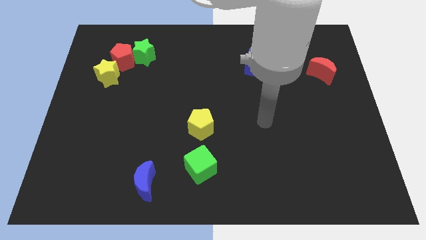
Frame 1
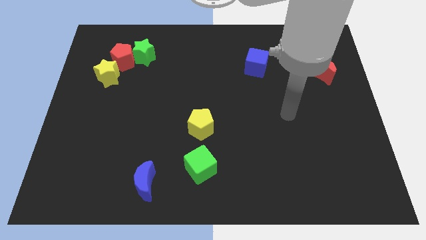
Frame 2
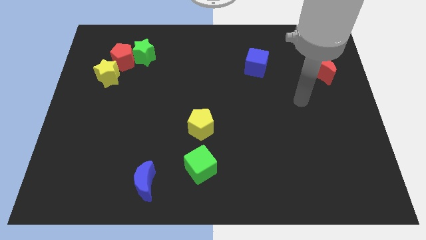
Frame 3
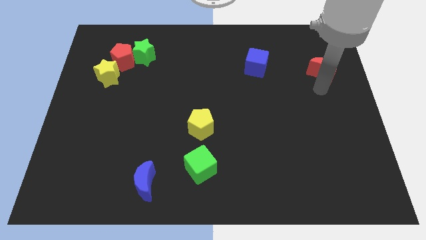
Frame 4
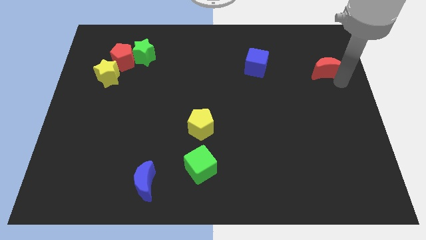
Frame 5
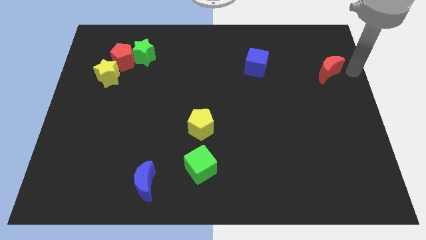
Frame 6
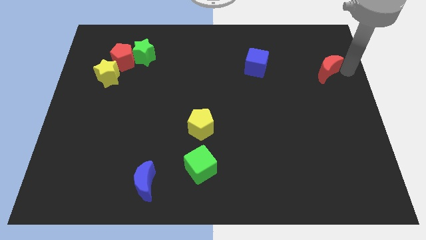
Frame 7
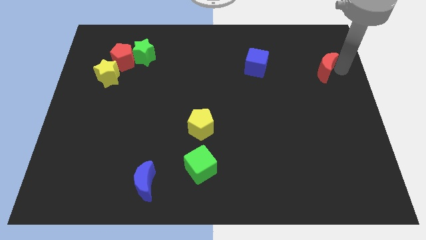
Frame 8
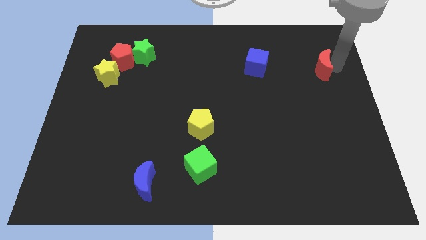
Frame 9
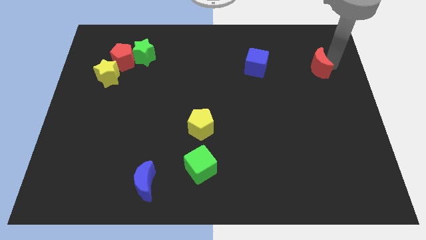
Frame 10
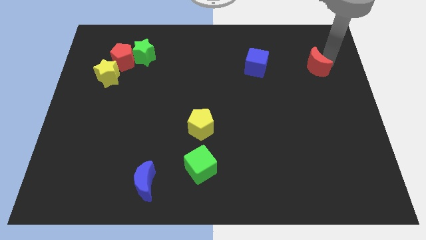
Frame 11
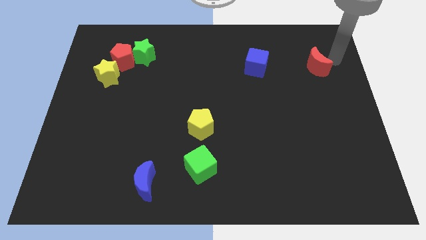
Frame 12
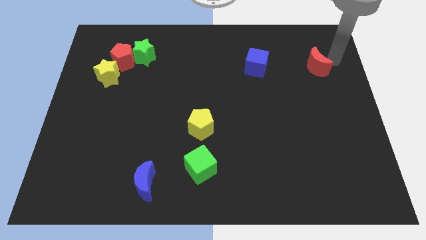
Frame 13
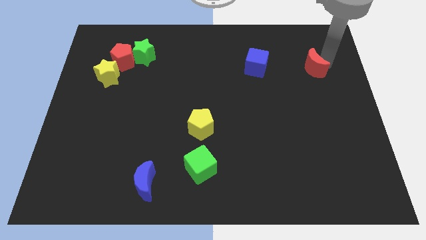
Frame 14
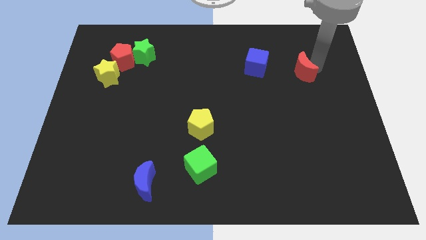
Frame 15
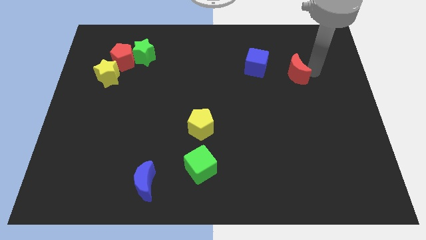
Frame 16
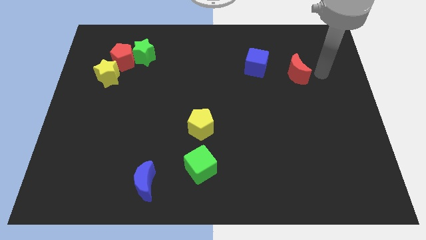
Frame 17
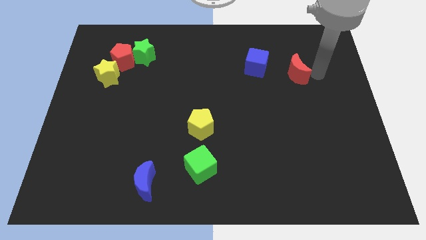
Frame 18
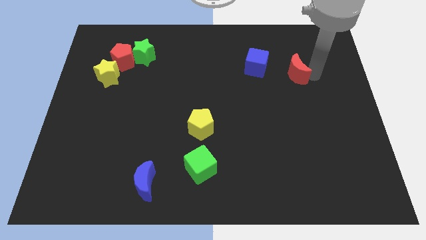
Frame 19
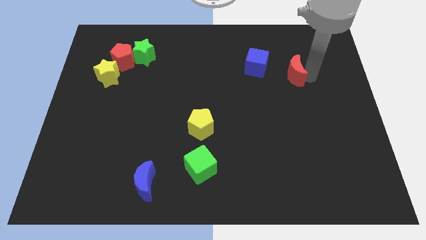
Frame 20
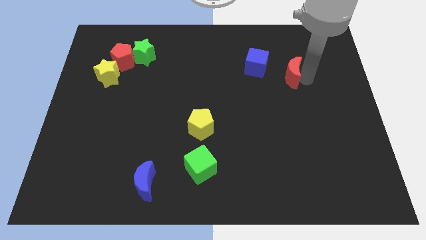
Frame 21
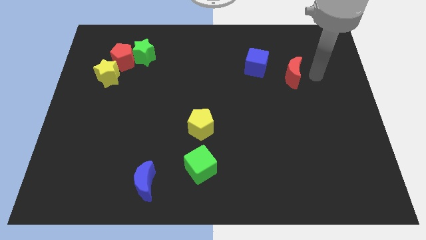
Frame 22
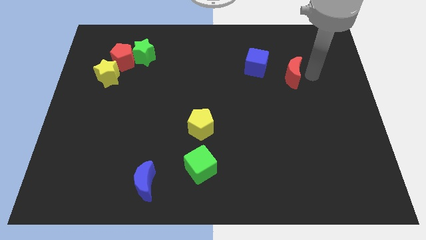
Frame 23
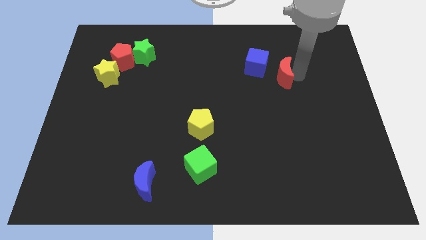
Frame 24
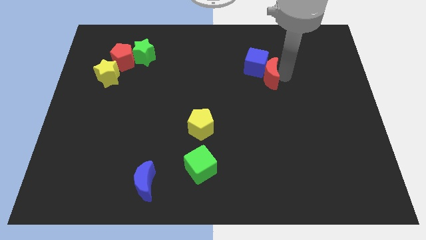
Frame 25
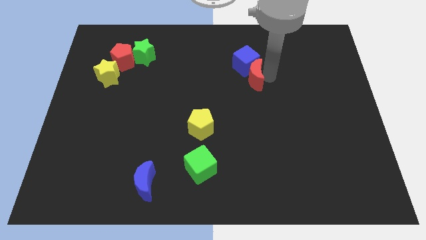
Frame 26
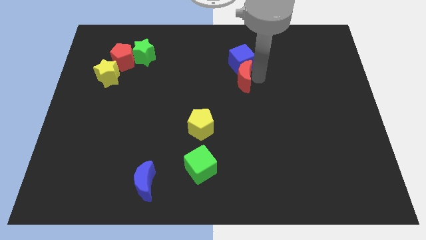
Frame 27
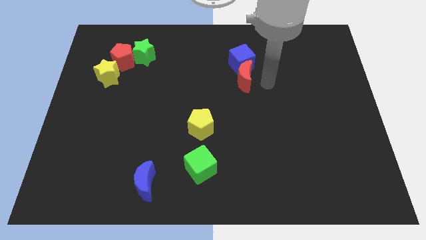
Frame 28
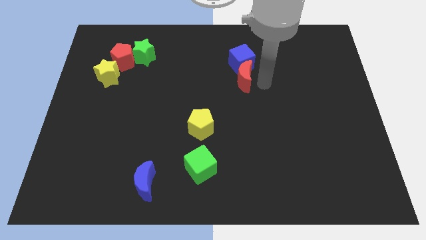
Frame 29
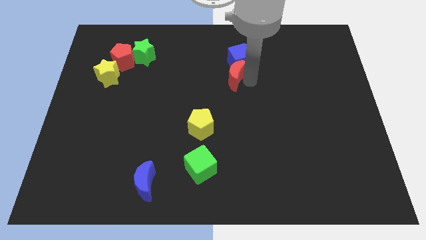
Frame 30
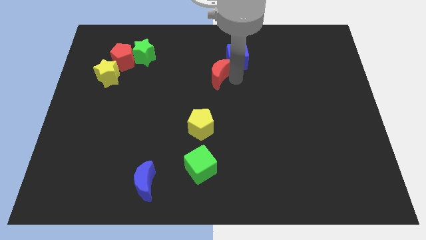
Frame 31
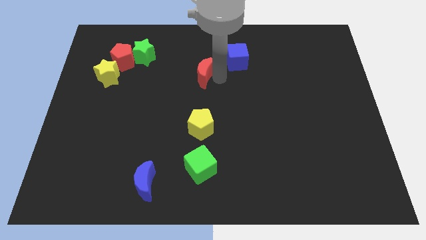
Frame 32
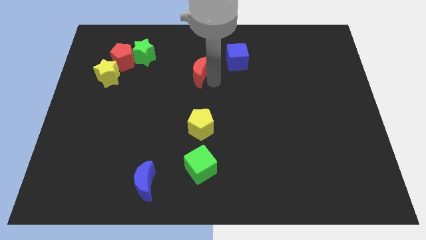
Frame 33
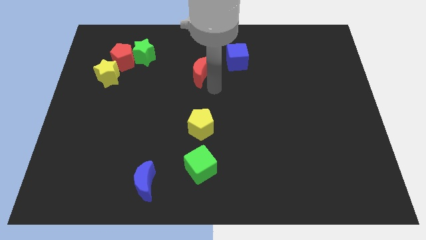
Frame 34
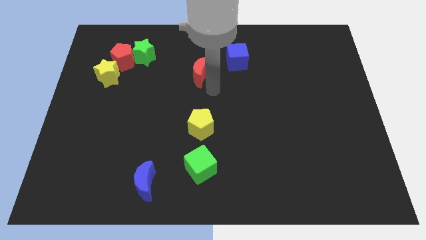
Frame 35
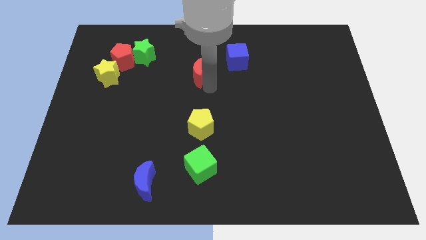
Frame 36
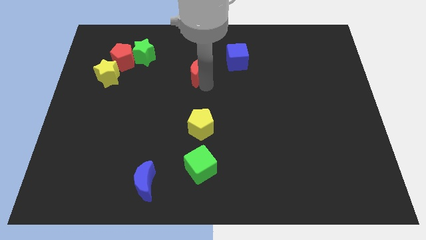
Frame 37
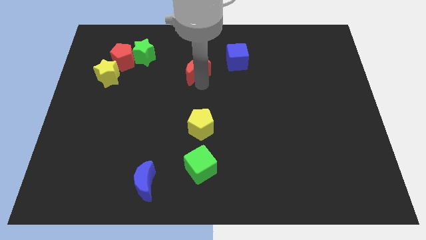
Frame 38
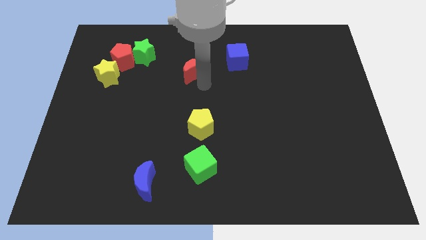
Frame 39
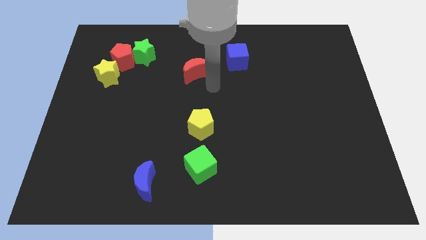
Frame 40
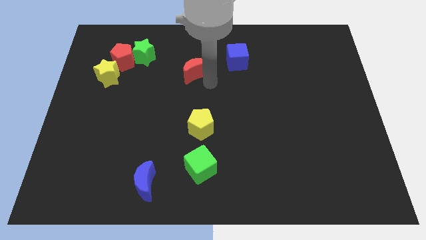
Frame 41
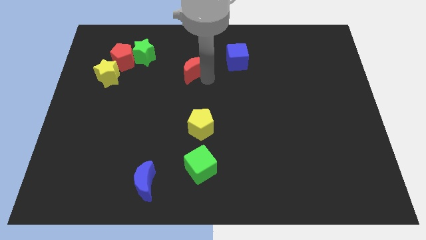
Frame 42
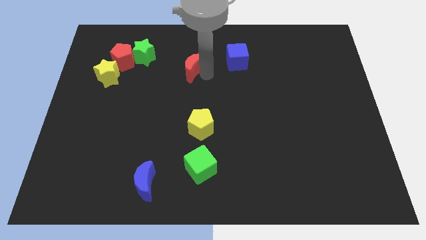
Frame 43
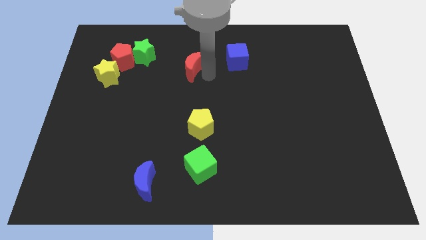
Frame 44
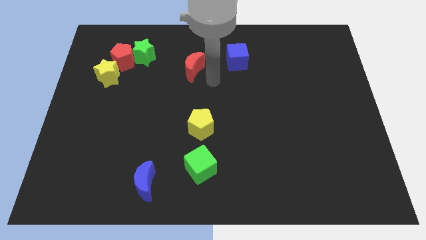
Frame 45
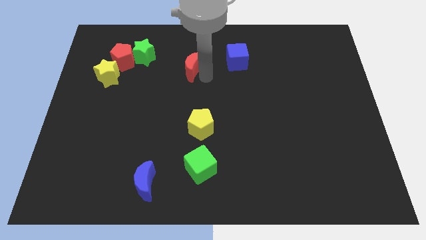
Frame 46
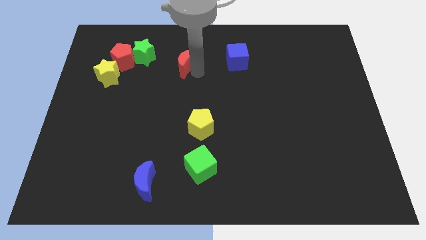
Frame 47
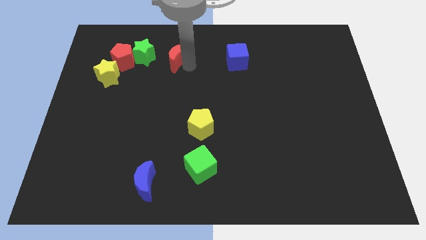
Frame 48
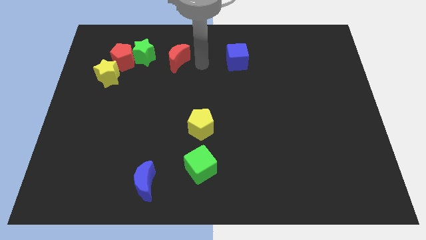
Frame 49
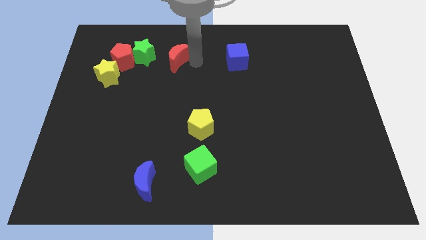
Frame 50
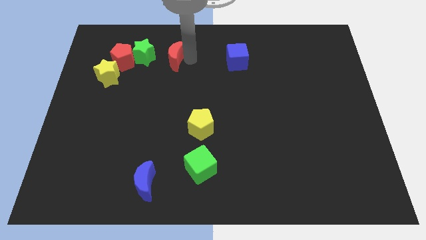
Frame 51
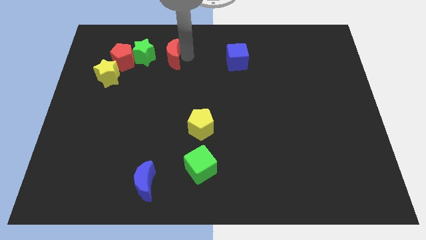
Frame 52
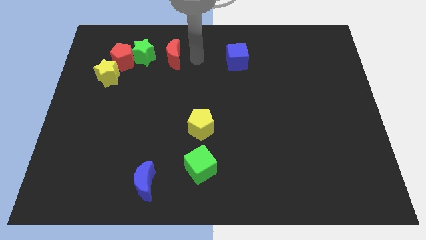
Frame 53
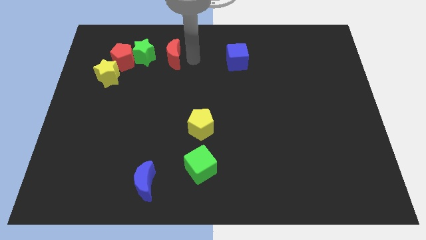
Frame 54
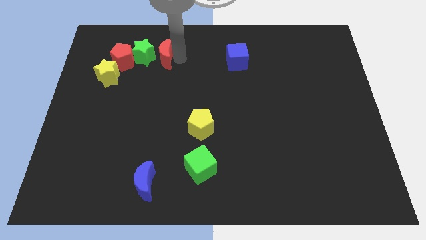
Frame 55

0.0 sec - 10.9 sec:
push the red moon to the green star

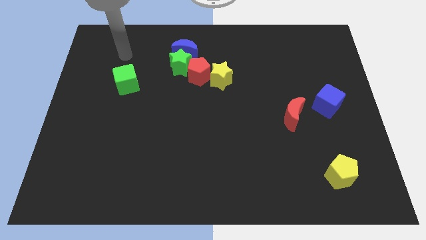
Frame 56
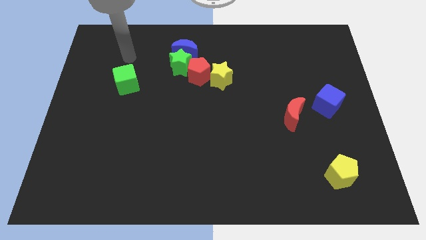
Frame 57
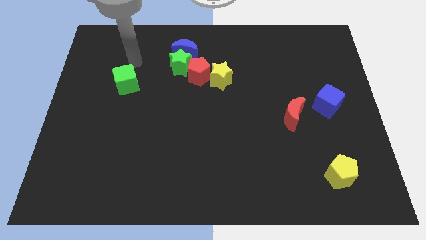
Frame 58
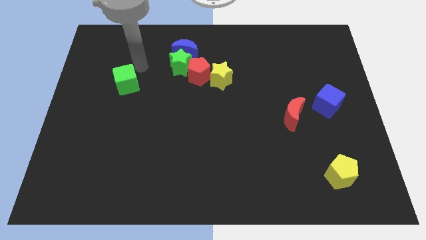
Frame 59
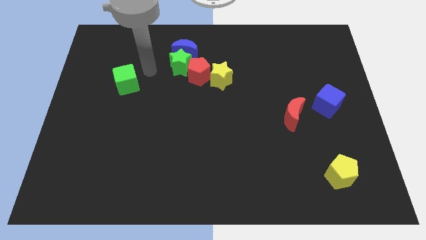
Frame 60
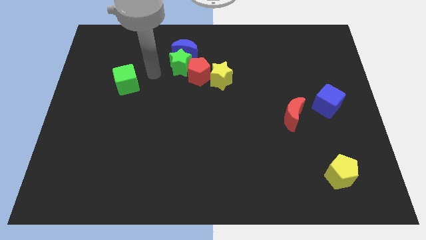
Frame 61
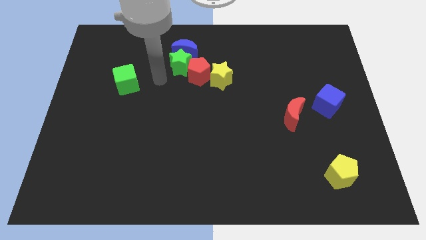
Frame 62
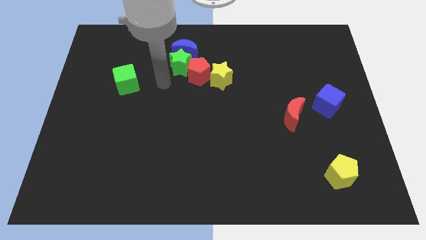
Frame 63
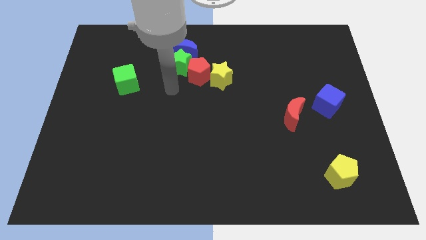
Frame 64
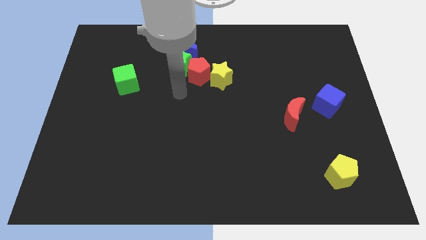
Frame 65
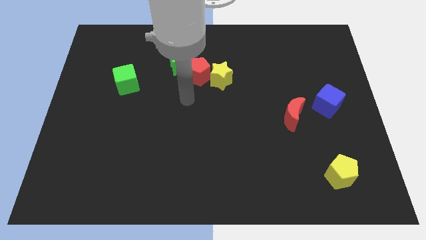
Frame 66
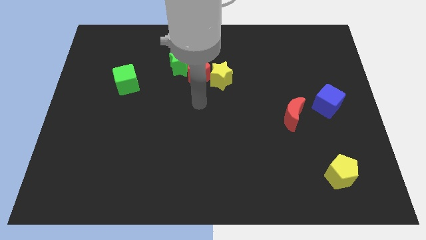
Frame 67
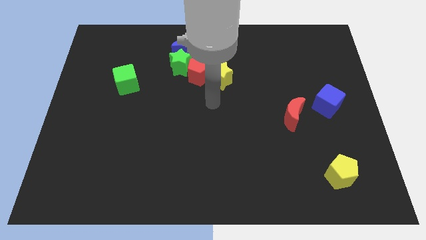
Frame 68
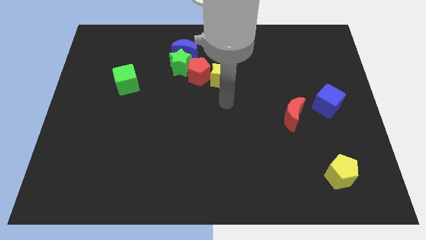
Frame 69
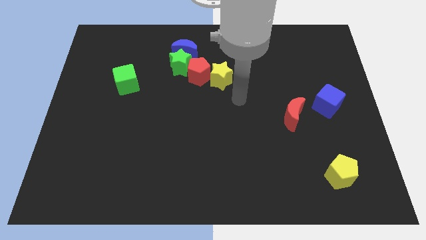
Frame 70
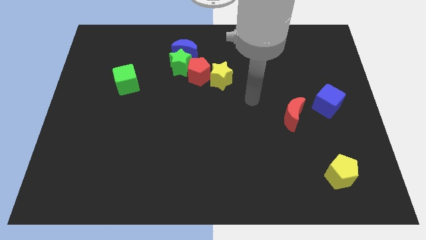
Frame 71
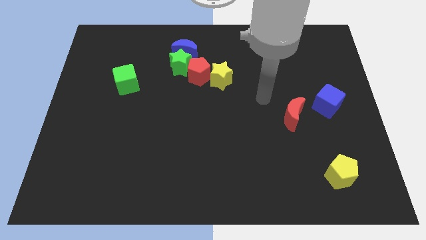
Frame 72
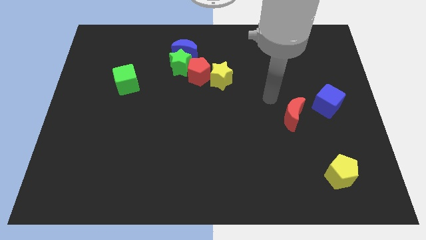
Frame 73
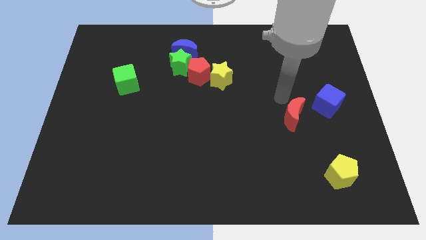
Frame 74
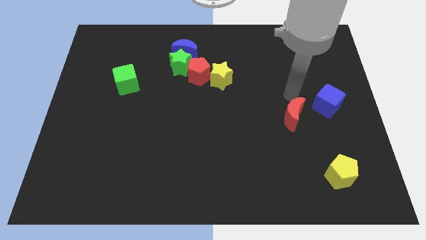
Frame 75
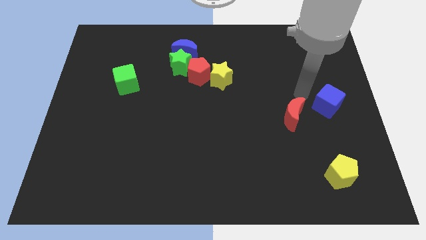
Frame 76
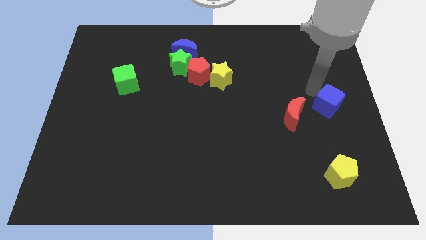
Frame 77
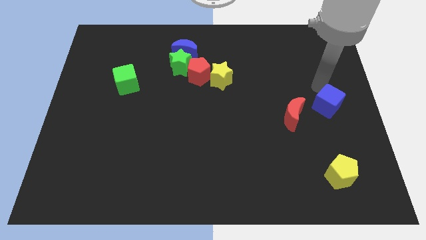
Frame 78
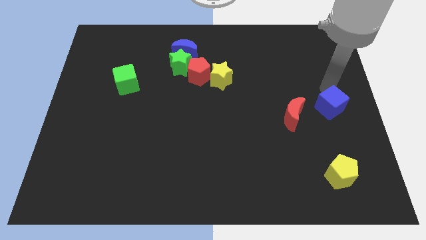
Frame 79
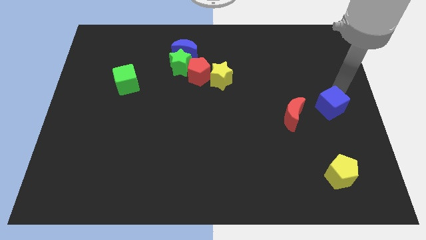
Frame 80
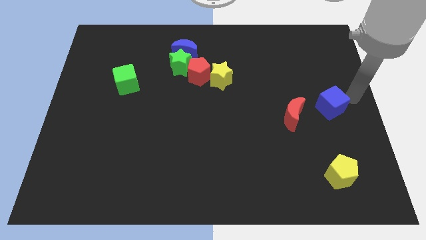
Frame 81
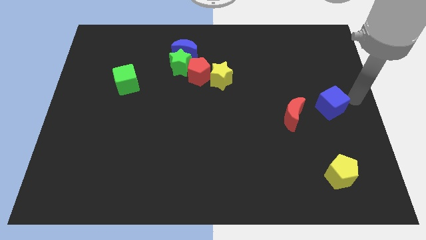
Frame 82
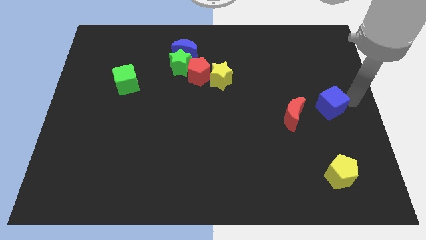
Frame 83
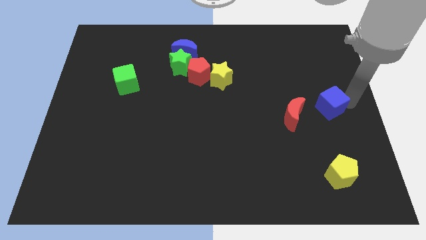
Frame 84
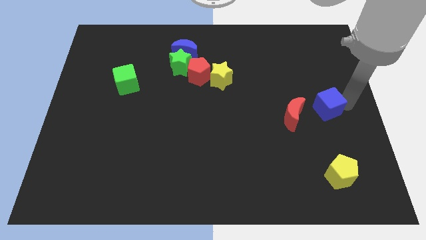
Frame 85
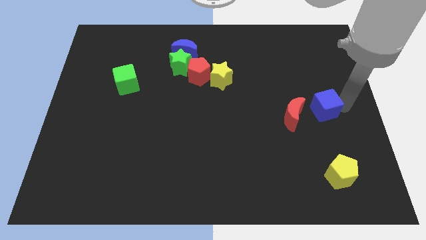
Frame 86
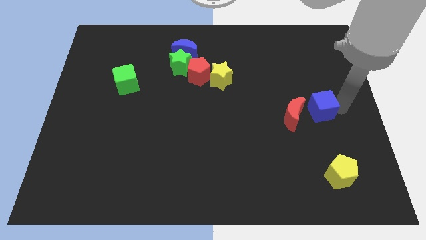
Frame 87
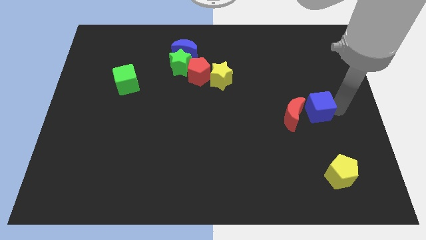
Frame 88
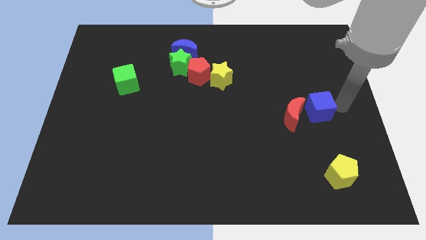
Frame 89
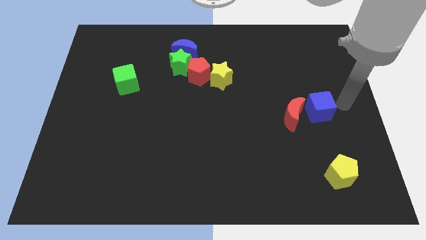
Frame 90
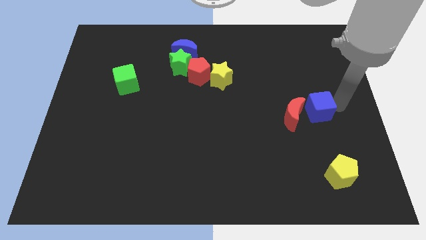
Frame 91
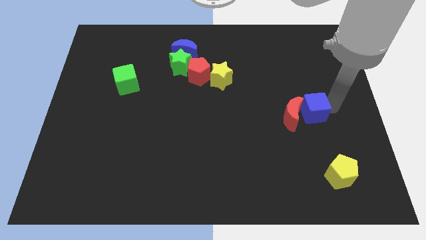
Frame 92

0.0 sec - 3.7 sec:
push the blue cube towards the red moon
